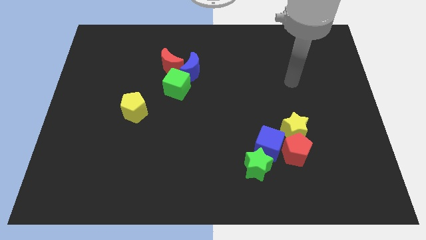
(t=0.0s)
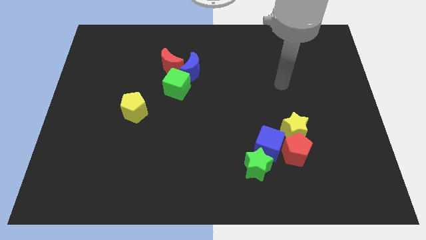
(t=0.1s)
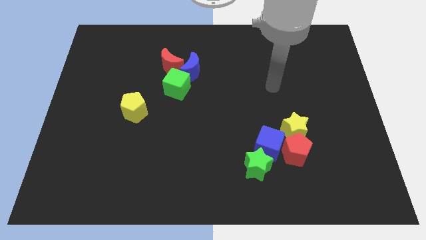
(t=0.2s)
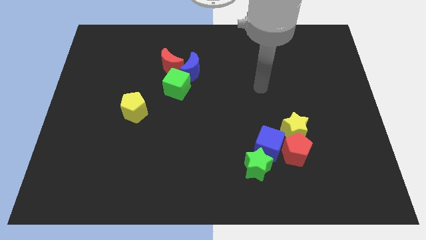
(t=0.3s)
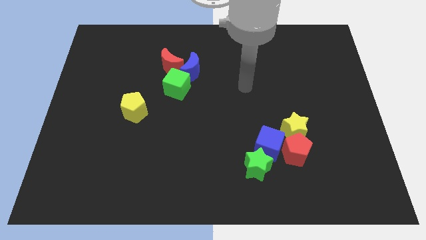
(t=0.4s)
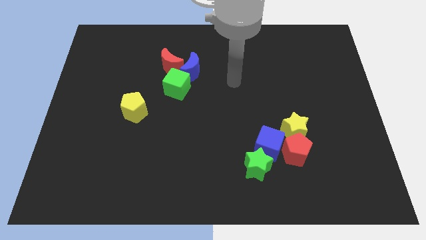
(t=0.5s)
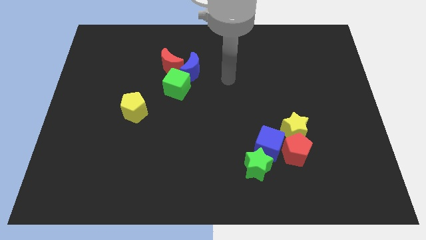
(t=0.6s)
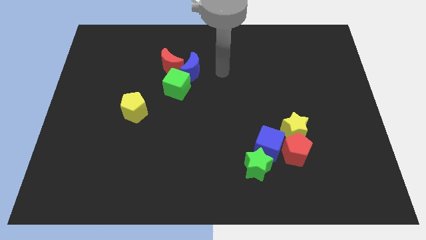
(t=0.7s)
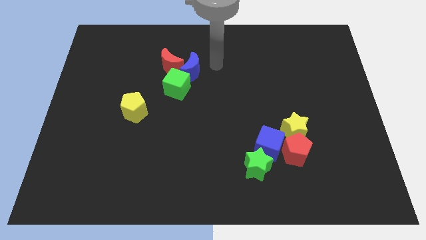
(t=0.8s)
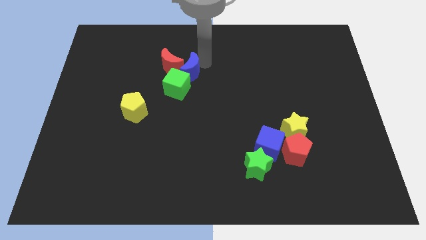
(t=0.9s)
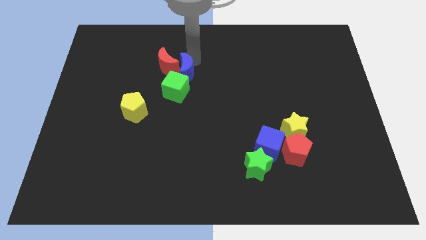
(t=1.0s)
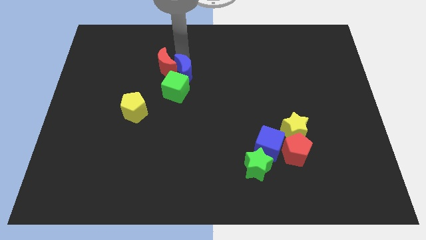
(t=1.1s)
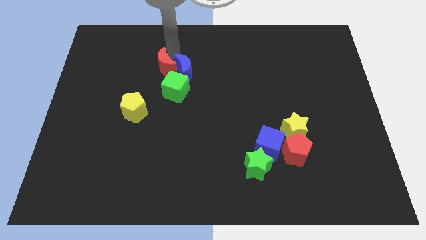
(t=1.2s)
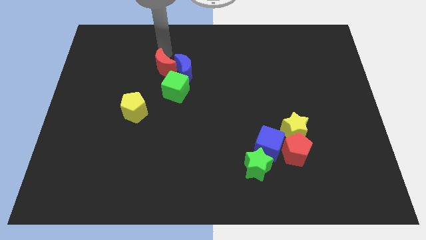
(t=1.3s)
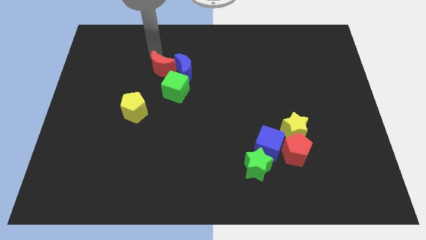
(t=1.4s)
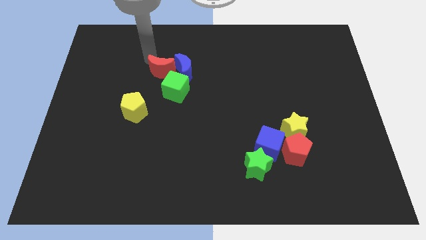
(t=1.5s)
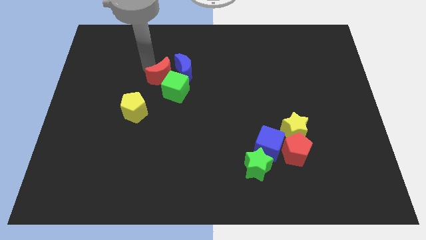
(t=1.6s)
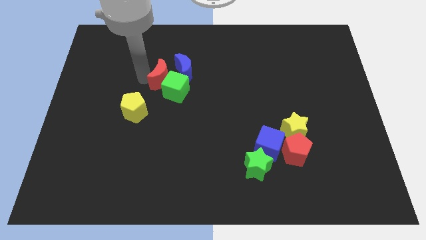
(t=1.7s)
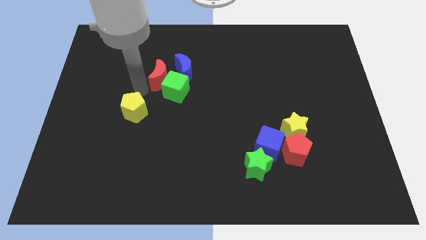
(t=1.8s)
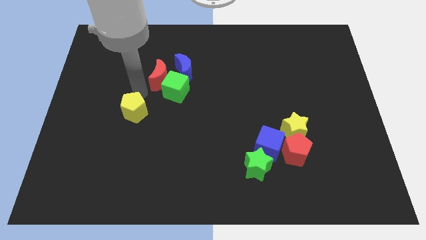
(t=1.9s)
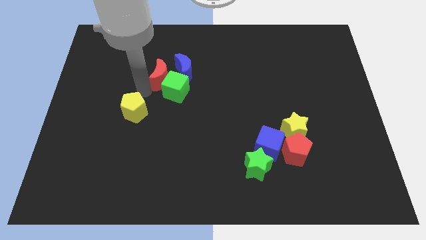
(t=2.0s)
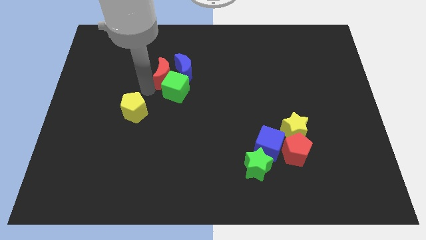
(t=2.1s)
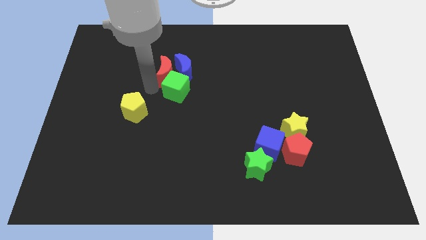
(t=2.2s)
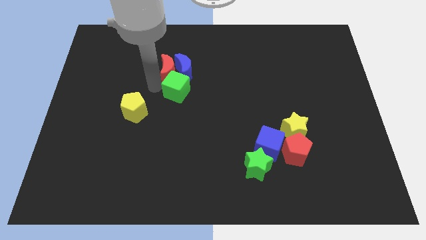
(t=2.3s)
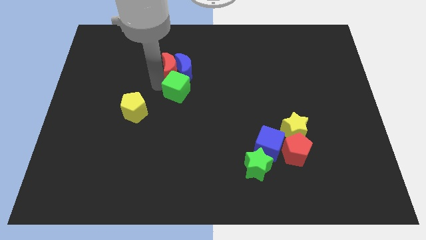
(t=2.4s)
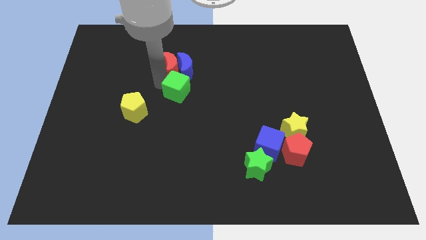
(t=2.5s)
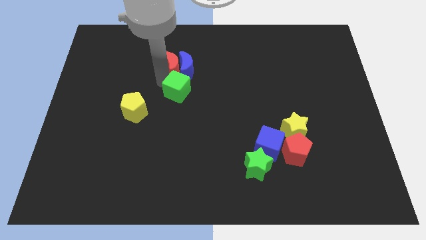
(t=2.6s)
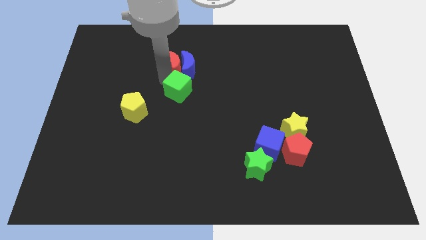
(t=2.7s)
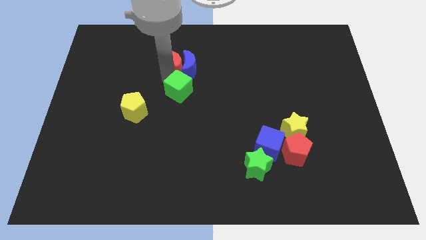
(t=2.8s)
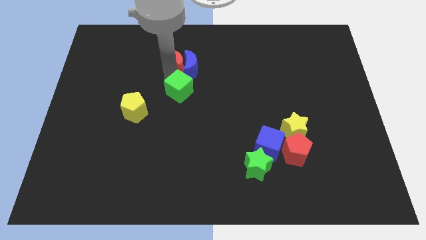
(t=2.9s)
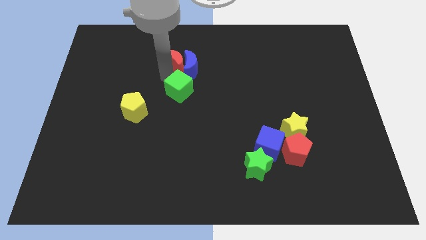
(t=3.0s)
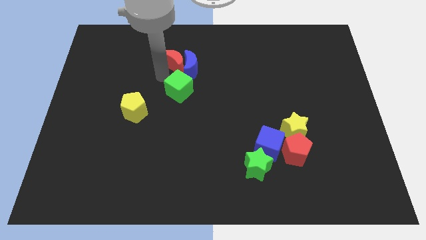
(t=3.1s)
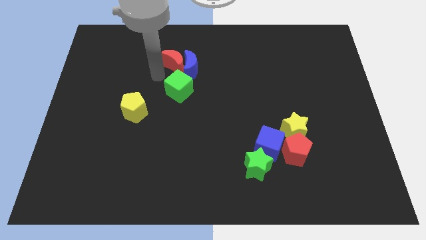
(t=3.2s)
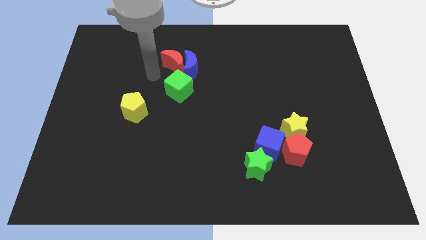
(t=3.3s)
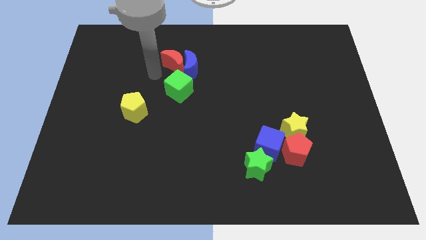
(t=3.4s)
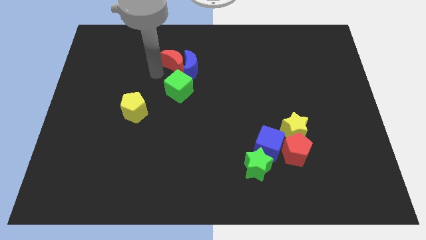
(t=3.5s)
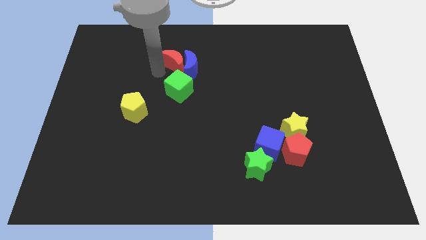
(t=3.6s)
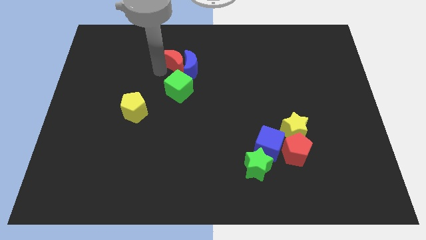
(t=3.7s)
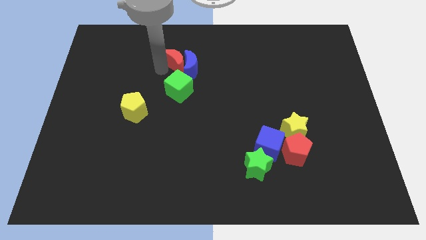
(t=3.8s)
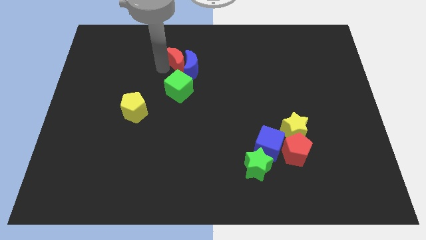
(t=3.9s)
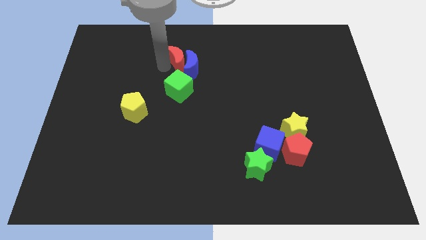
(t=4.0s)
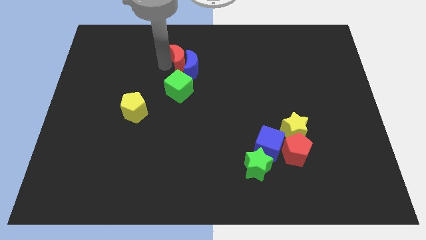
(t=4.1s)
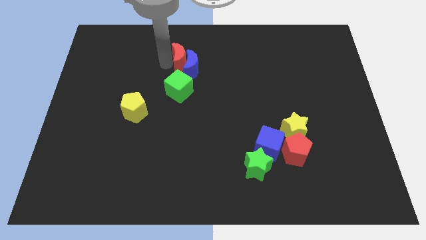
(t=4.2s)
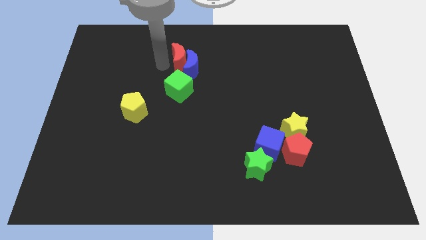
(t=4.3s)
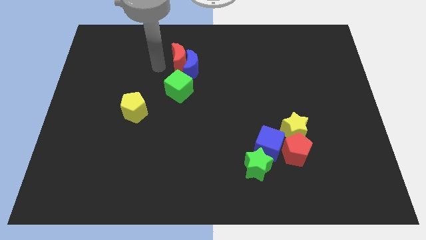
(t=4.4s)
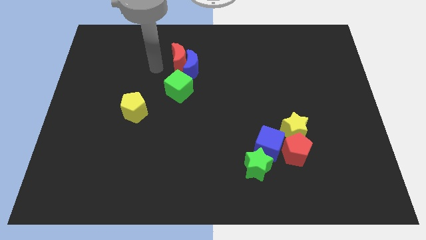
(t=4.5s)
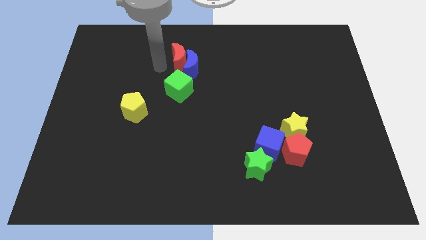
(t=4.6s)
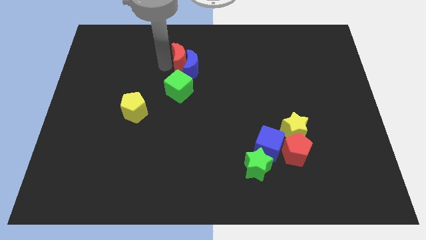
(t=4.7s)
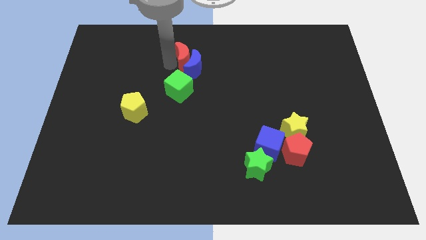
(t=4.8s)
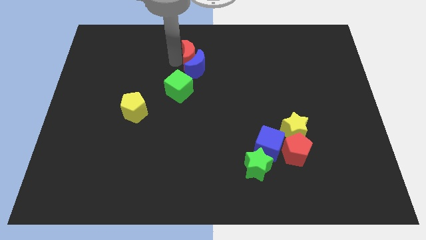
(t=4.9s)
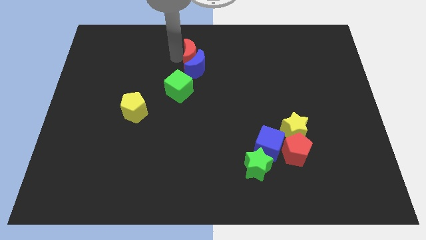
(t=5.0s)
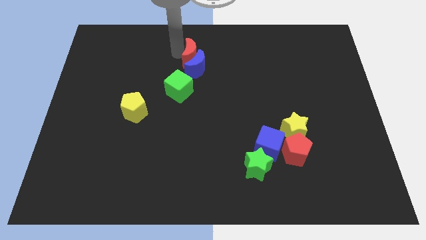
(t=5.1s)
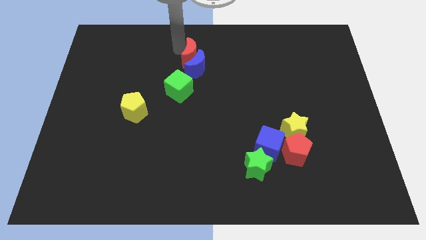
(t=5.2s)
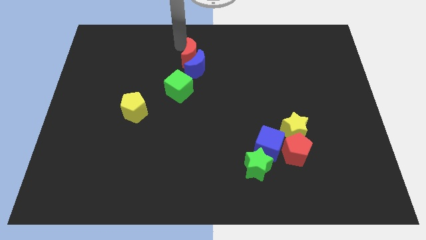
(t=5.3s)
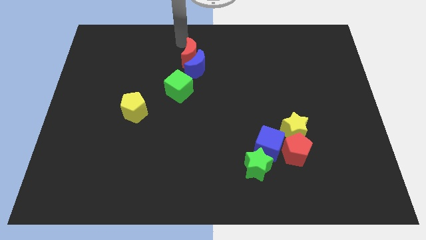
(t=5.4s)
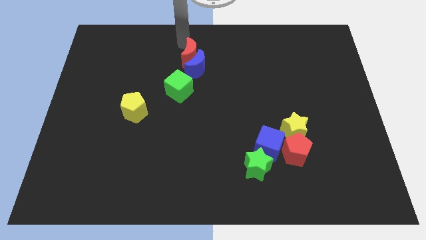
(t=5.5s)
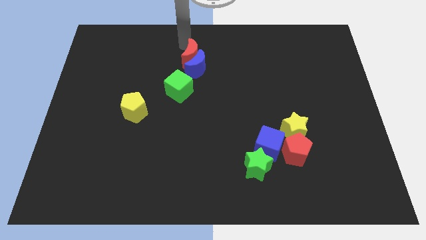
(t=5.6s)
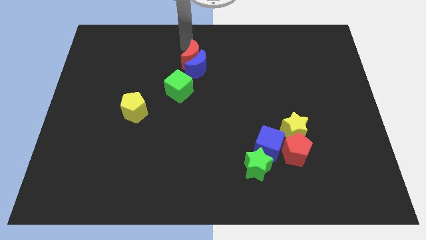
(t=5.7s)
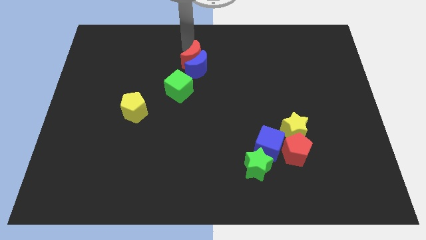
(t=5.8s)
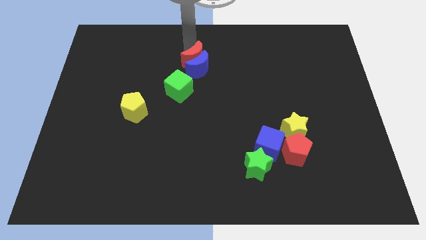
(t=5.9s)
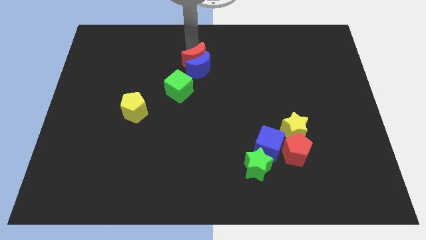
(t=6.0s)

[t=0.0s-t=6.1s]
move the red moon to the top right side of the green cube

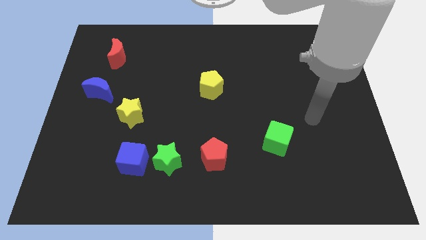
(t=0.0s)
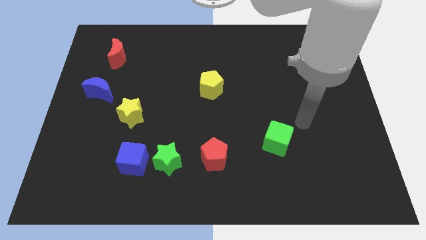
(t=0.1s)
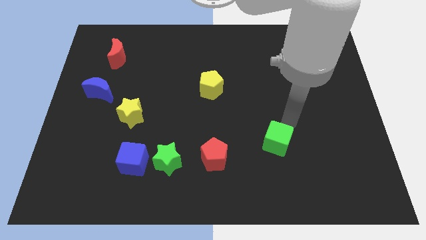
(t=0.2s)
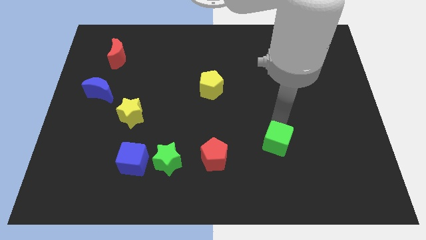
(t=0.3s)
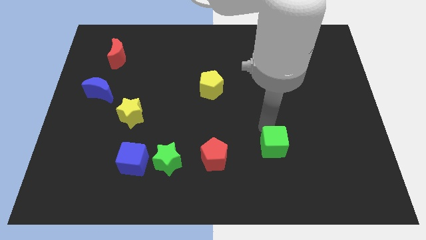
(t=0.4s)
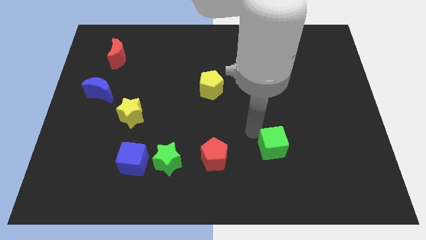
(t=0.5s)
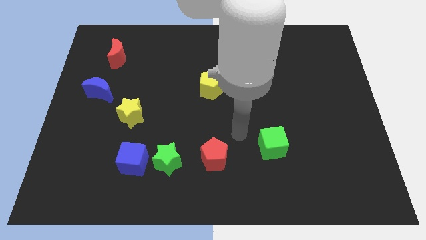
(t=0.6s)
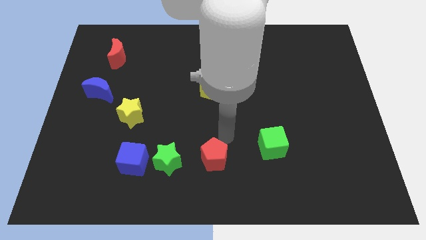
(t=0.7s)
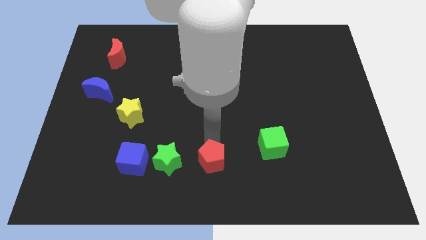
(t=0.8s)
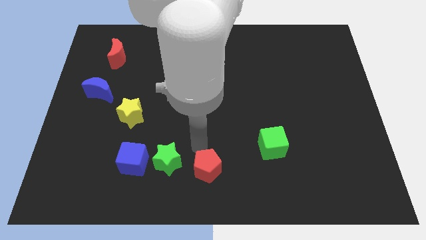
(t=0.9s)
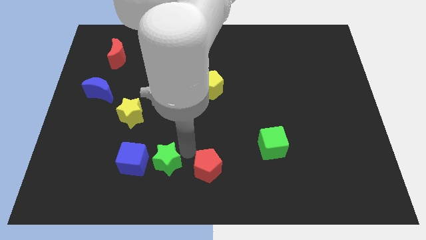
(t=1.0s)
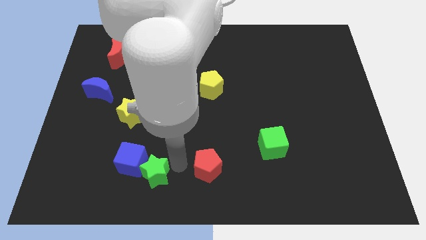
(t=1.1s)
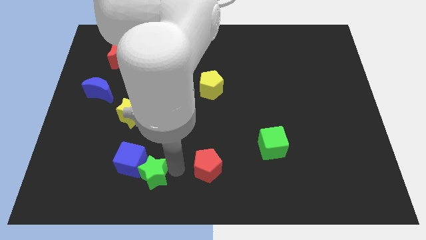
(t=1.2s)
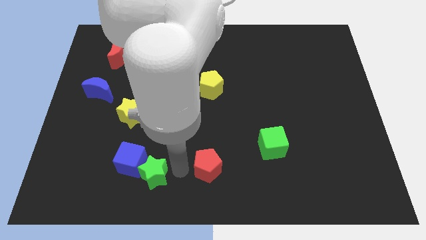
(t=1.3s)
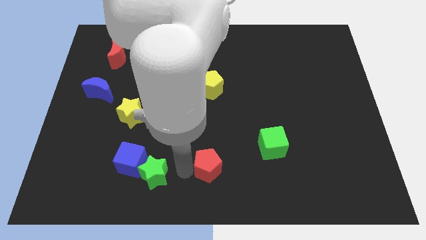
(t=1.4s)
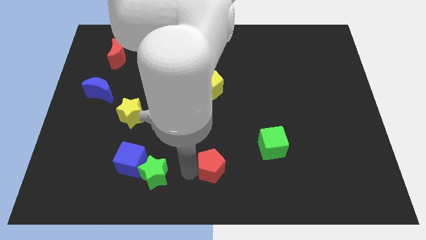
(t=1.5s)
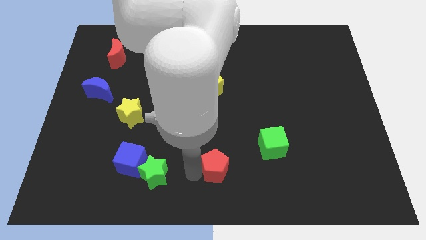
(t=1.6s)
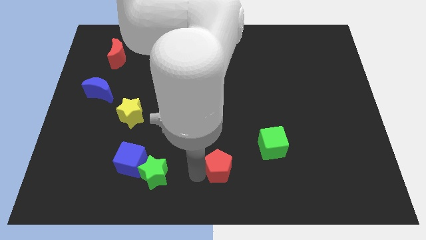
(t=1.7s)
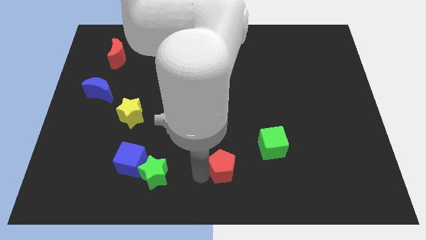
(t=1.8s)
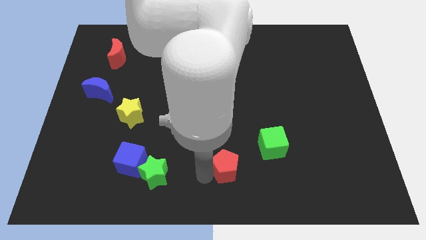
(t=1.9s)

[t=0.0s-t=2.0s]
move the red pentagon to the bottom left side of the green cube
